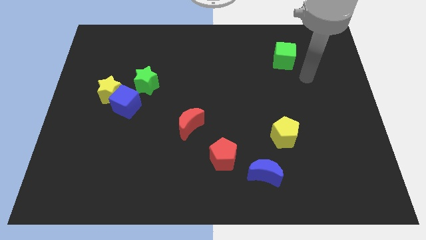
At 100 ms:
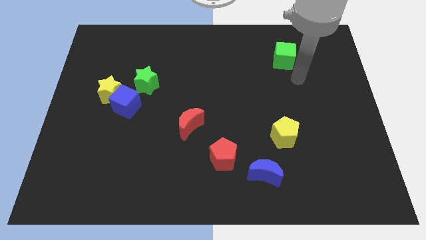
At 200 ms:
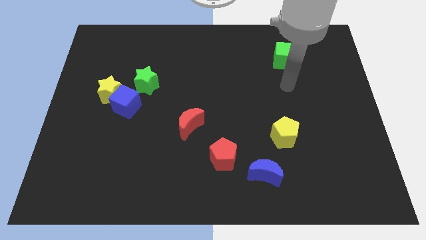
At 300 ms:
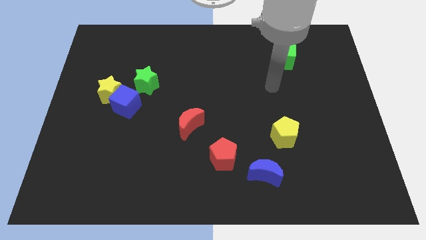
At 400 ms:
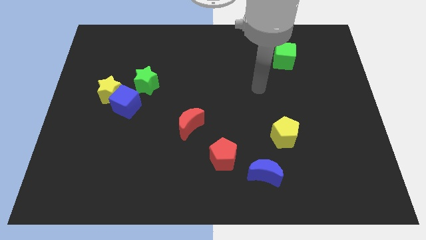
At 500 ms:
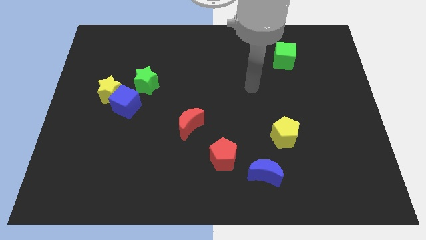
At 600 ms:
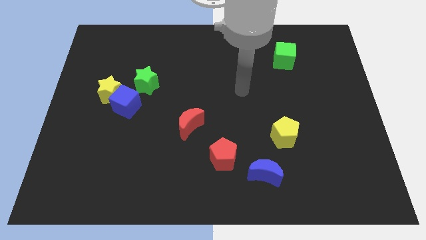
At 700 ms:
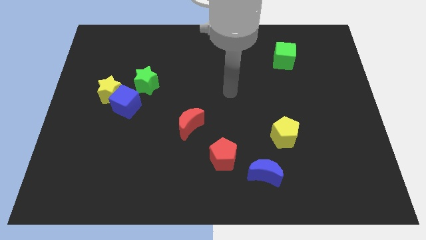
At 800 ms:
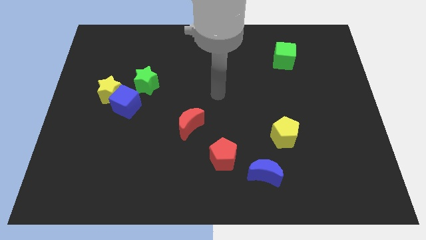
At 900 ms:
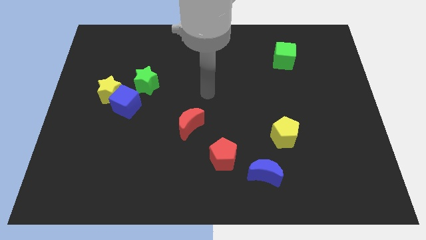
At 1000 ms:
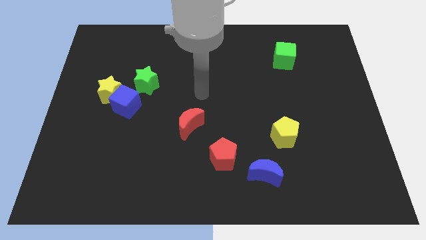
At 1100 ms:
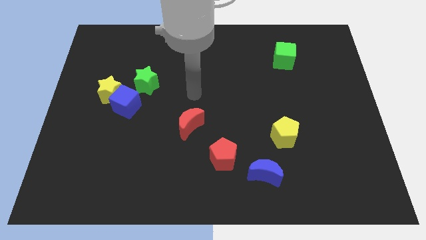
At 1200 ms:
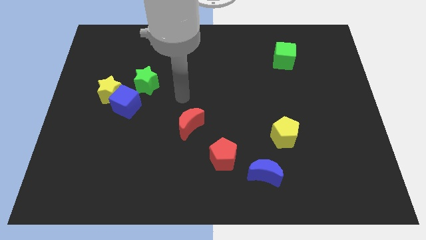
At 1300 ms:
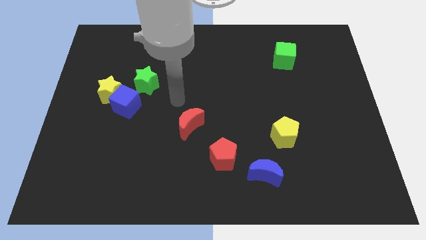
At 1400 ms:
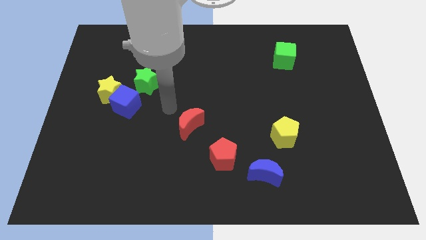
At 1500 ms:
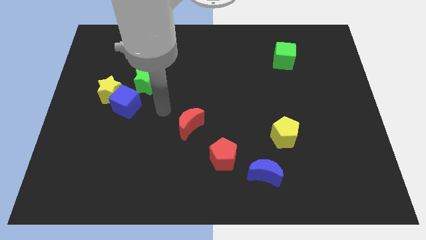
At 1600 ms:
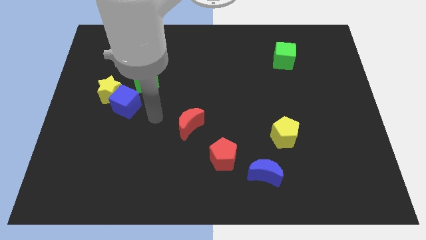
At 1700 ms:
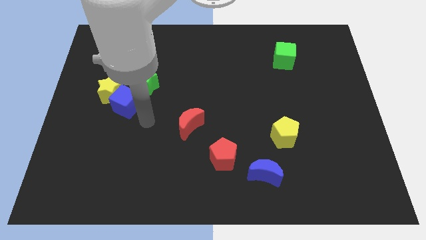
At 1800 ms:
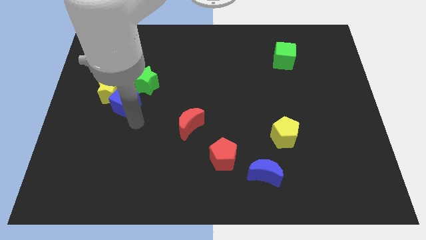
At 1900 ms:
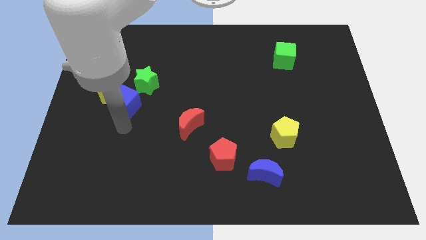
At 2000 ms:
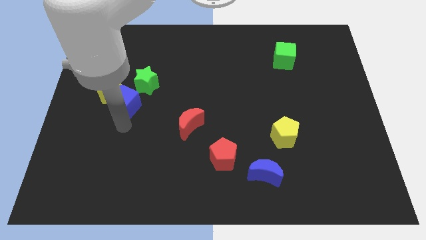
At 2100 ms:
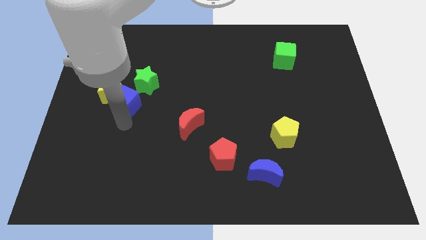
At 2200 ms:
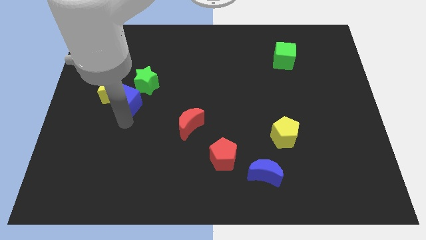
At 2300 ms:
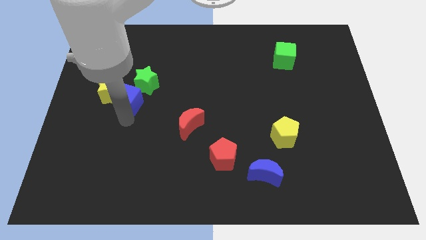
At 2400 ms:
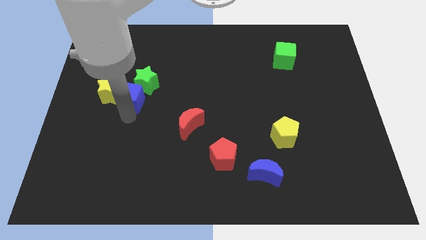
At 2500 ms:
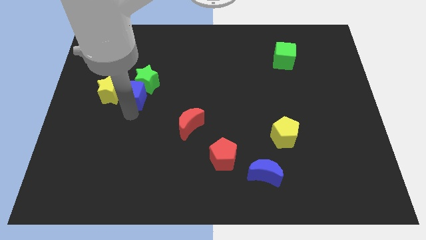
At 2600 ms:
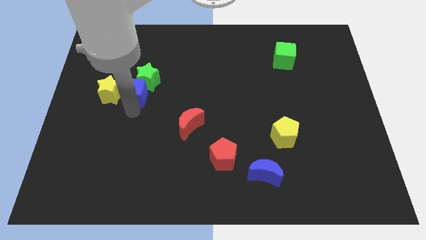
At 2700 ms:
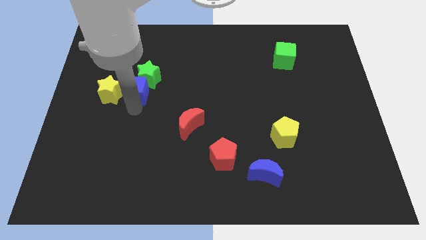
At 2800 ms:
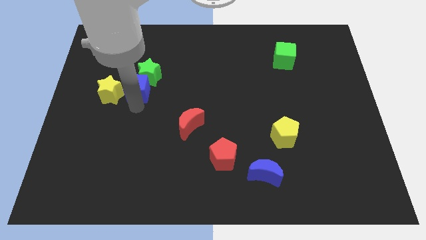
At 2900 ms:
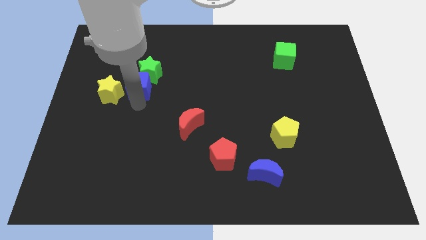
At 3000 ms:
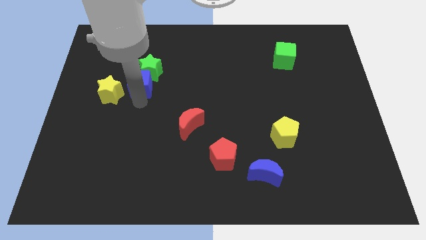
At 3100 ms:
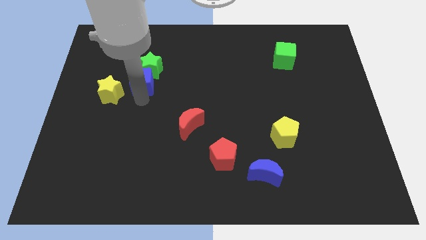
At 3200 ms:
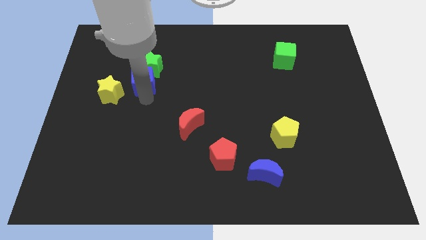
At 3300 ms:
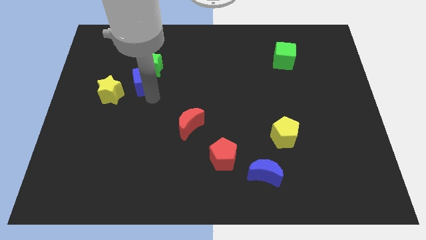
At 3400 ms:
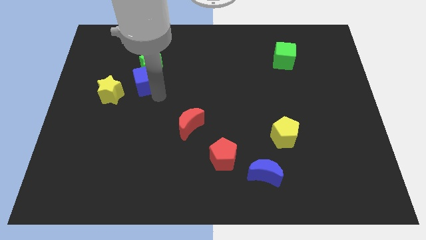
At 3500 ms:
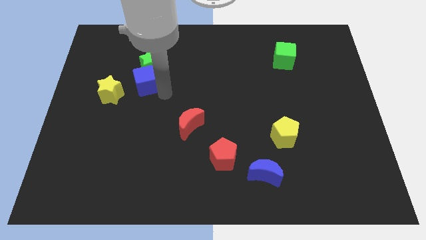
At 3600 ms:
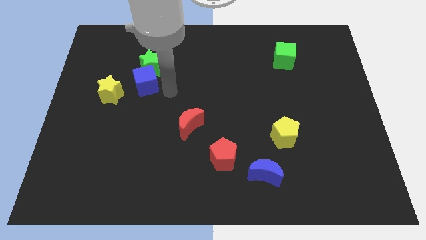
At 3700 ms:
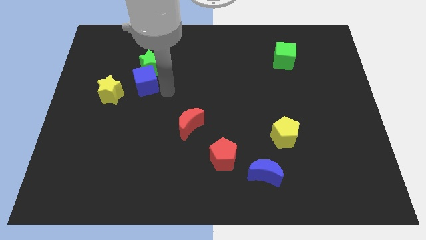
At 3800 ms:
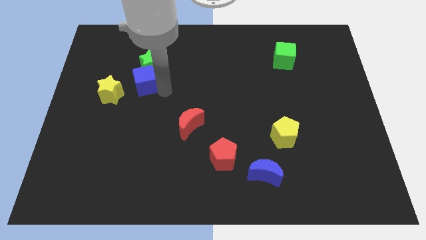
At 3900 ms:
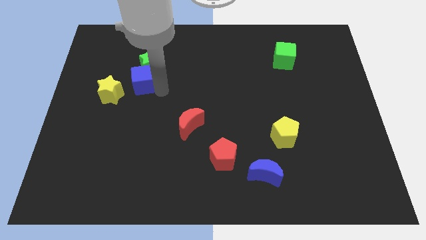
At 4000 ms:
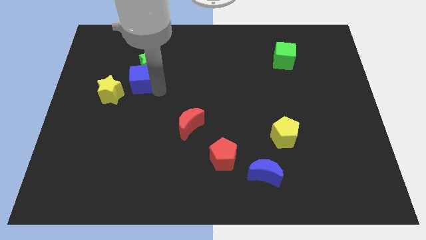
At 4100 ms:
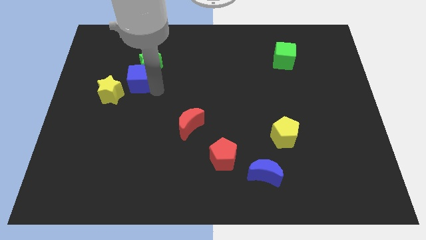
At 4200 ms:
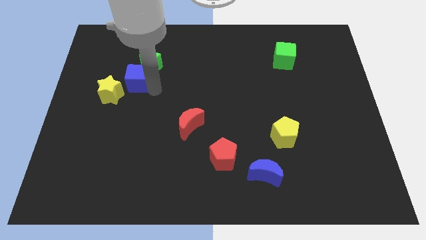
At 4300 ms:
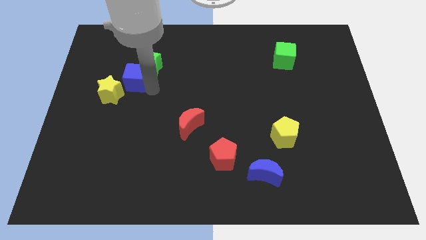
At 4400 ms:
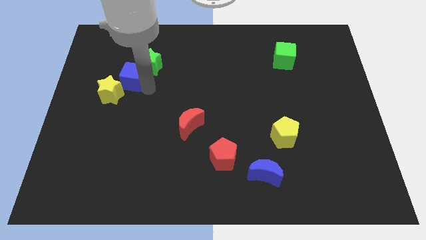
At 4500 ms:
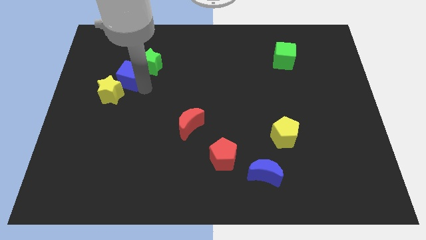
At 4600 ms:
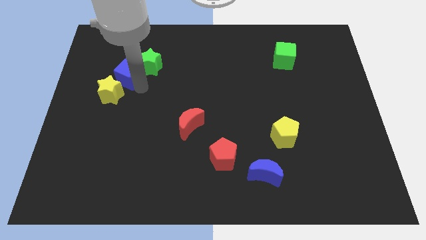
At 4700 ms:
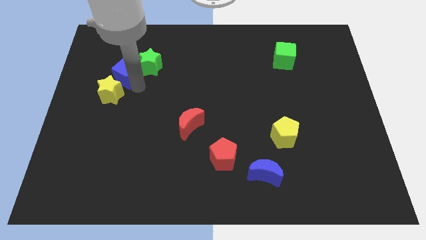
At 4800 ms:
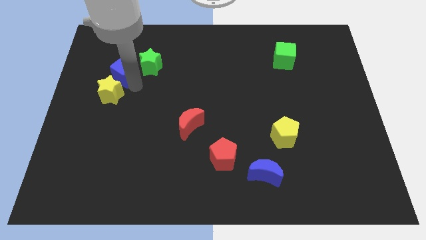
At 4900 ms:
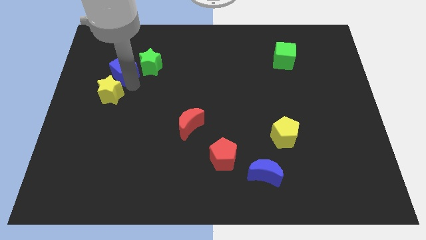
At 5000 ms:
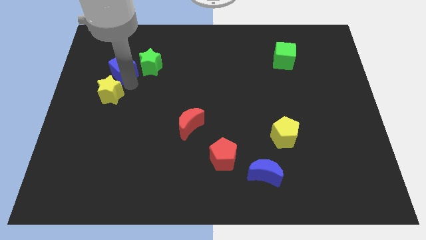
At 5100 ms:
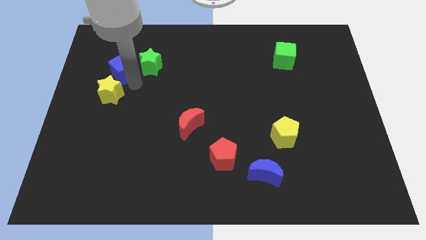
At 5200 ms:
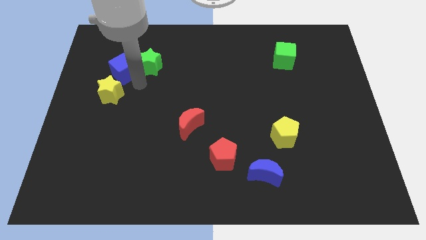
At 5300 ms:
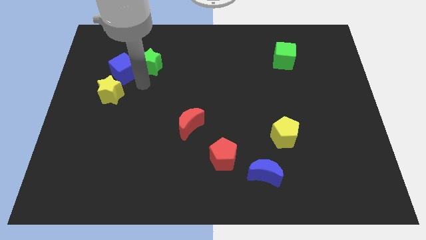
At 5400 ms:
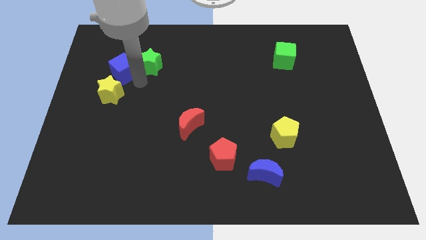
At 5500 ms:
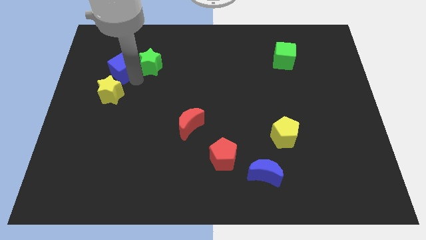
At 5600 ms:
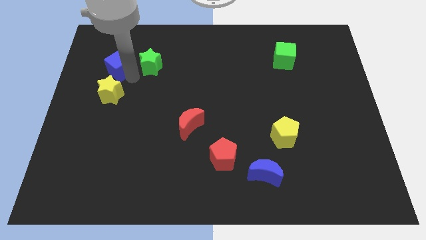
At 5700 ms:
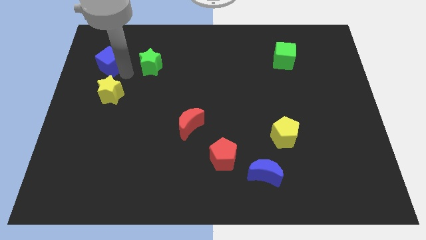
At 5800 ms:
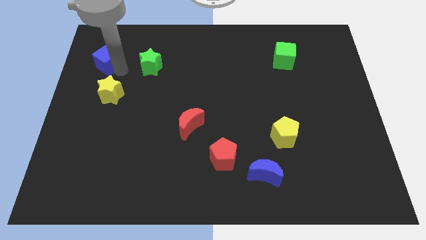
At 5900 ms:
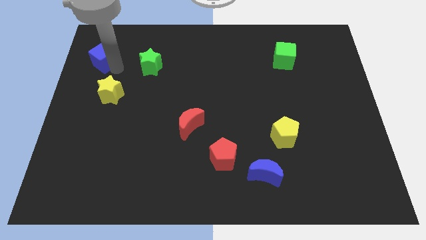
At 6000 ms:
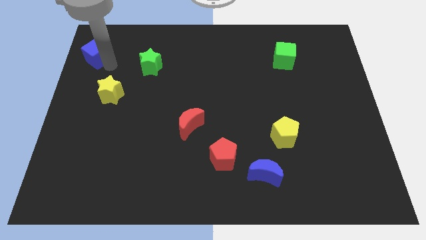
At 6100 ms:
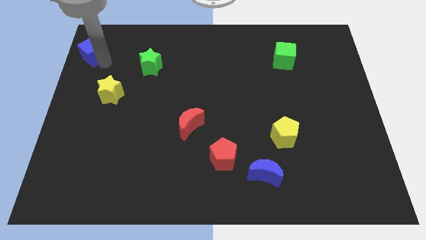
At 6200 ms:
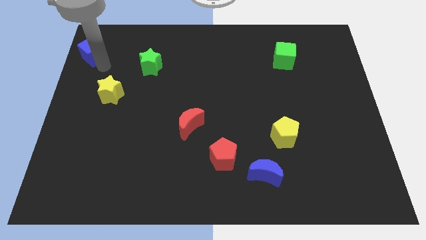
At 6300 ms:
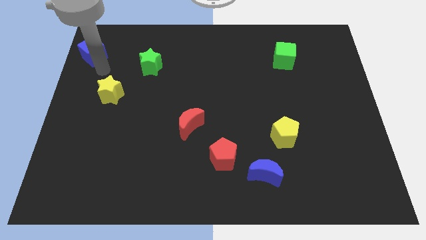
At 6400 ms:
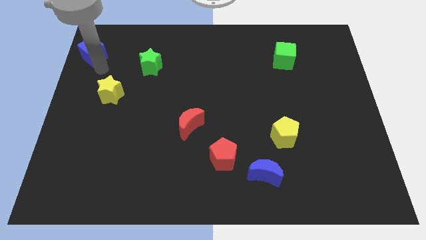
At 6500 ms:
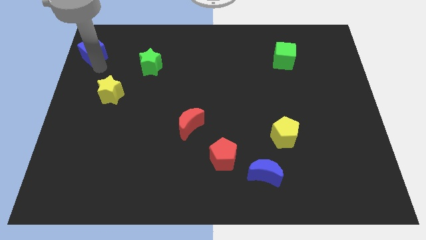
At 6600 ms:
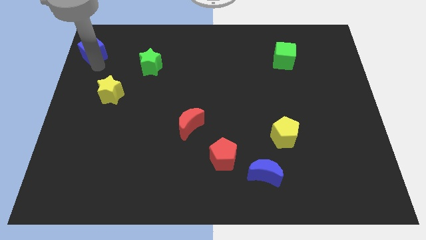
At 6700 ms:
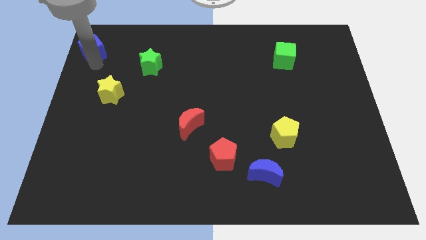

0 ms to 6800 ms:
slide the blue cube to the top left corner

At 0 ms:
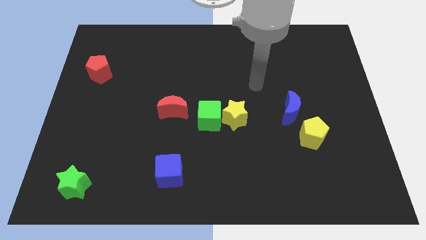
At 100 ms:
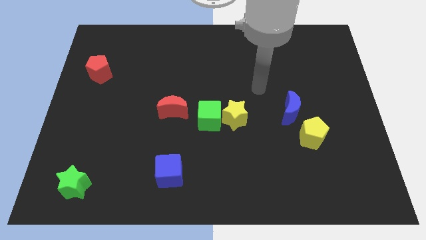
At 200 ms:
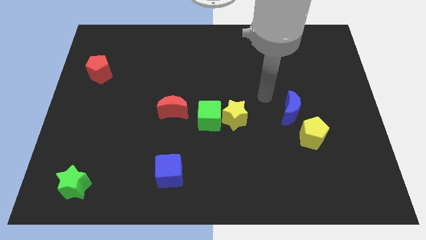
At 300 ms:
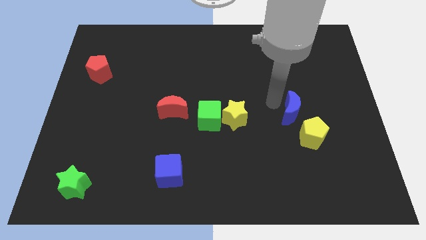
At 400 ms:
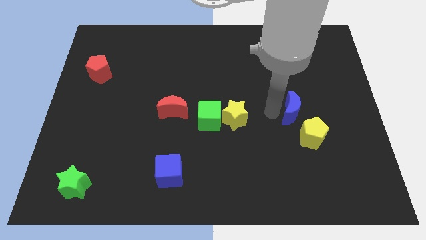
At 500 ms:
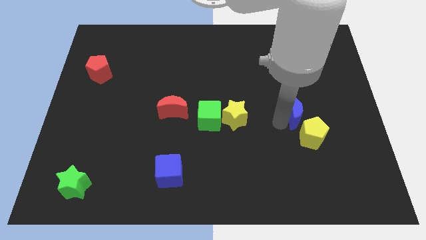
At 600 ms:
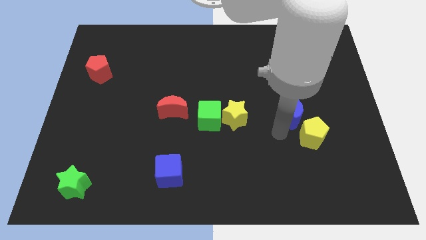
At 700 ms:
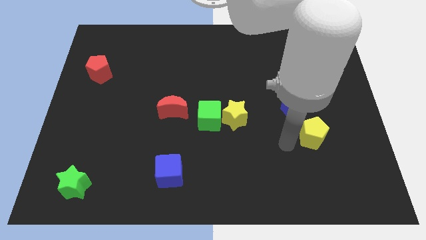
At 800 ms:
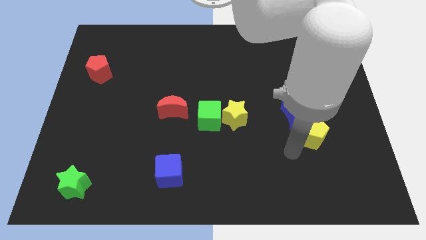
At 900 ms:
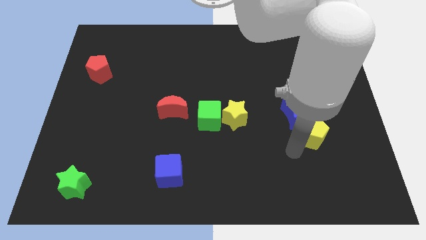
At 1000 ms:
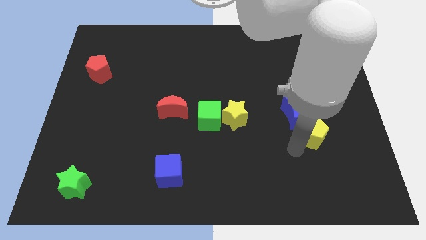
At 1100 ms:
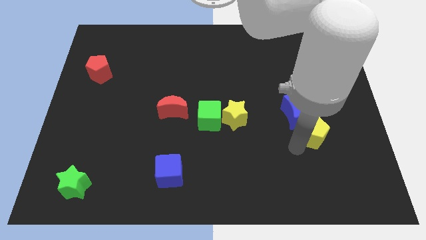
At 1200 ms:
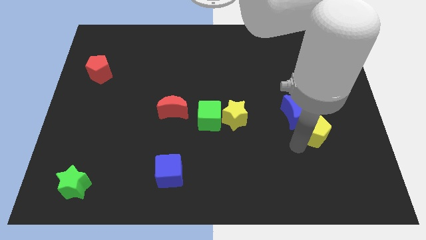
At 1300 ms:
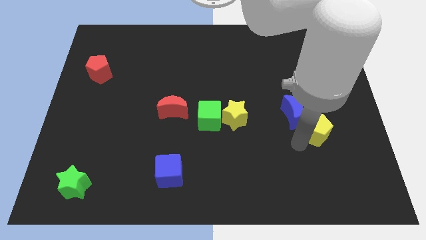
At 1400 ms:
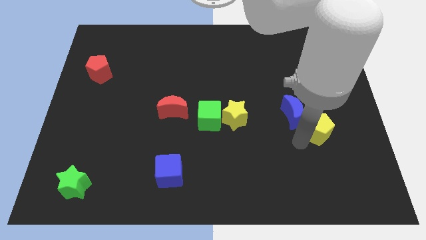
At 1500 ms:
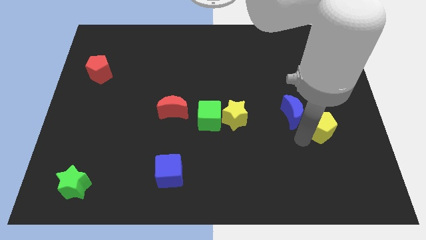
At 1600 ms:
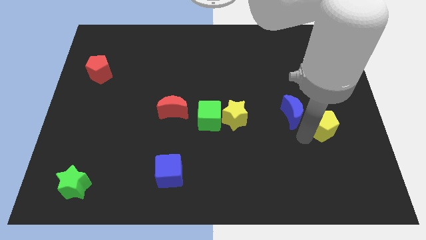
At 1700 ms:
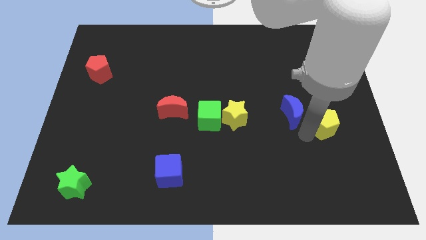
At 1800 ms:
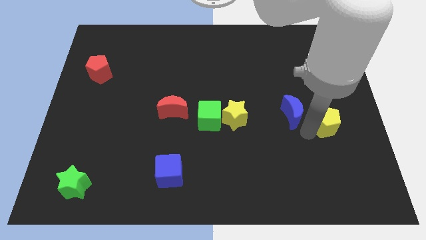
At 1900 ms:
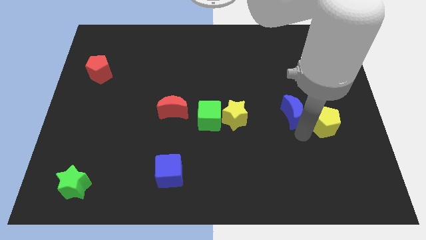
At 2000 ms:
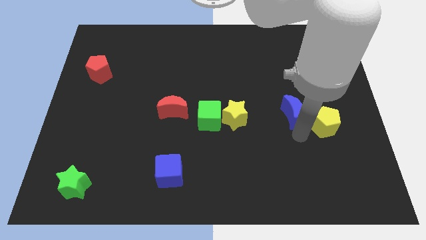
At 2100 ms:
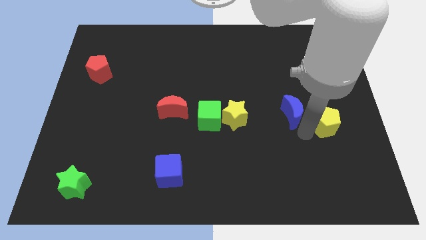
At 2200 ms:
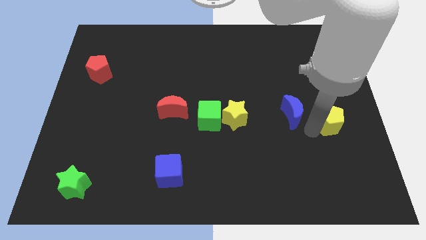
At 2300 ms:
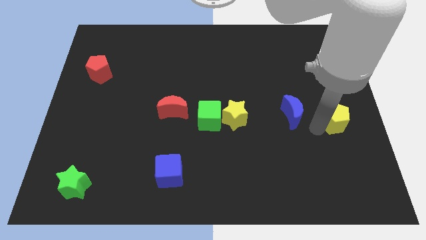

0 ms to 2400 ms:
push the yellow pentagon to the right side of the board
